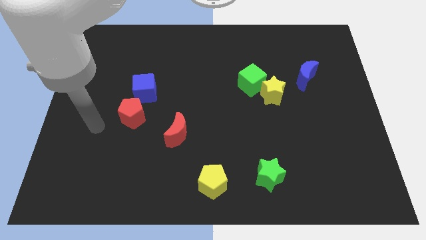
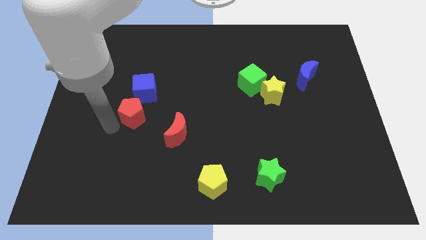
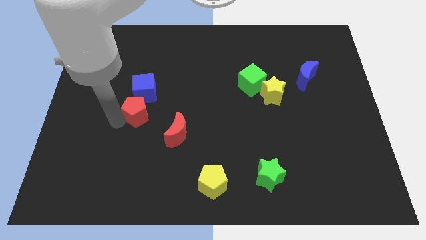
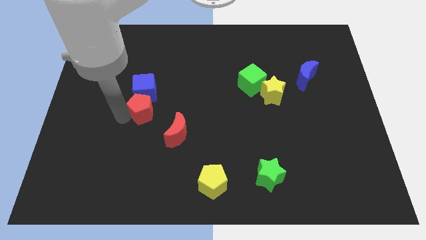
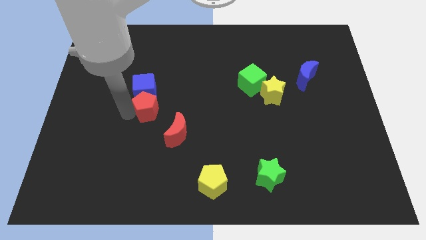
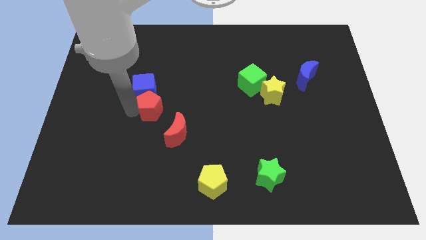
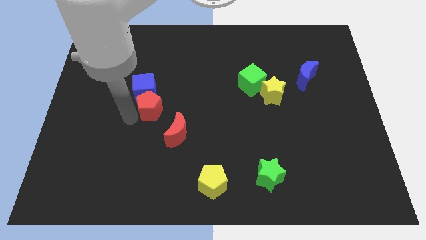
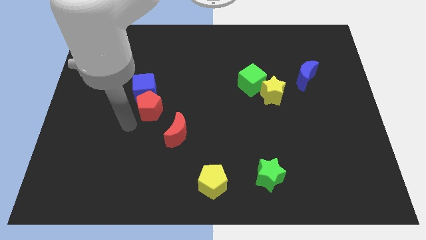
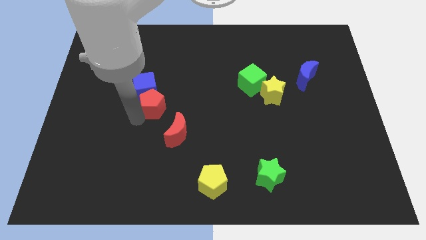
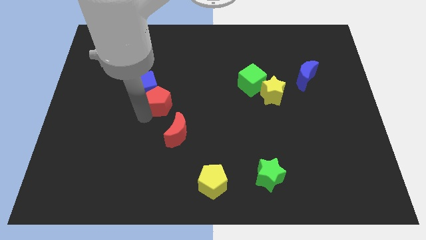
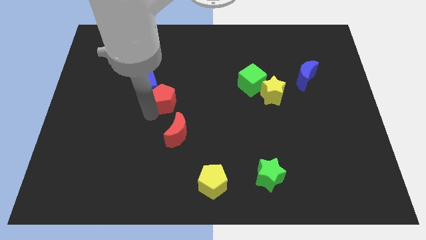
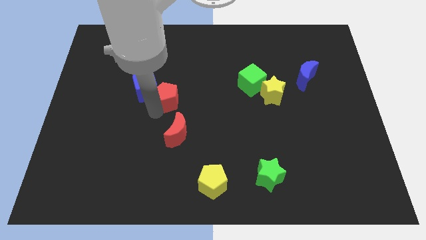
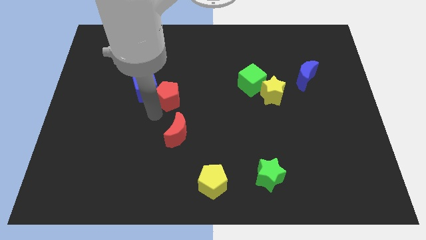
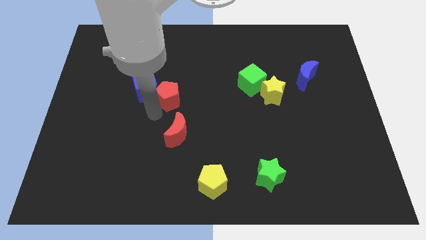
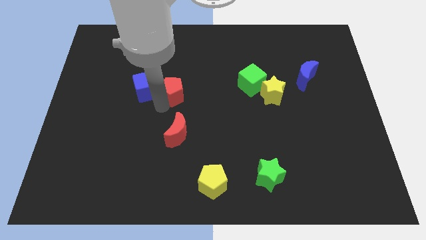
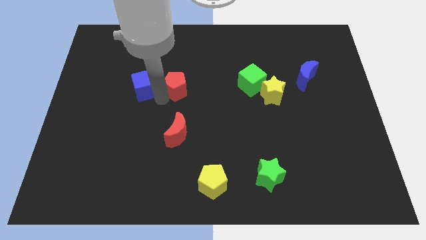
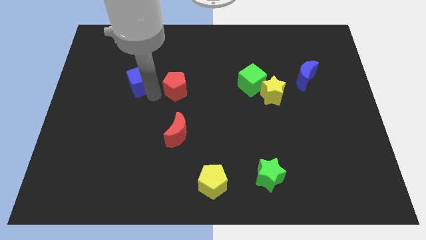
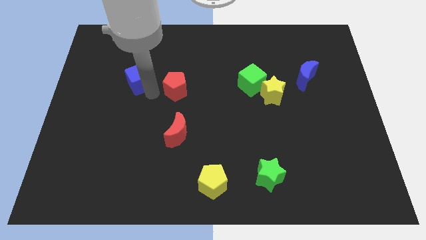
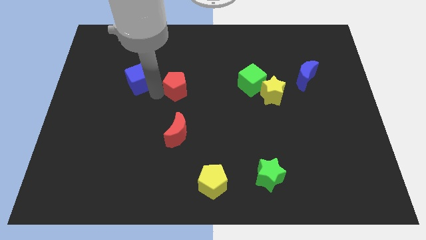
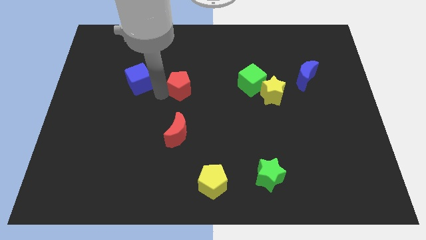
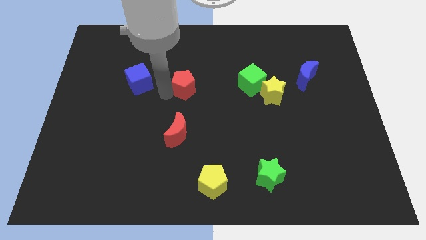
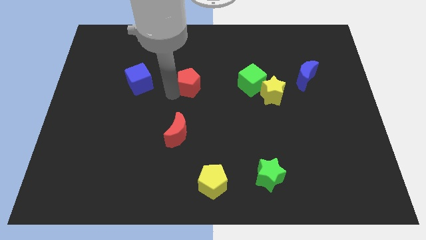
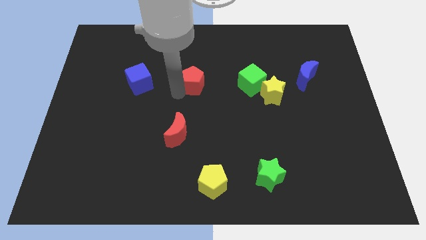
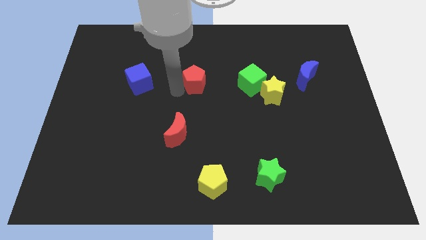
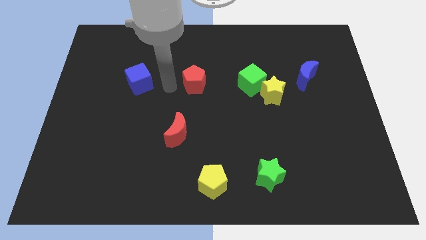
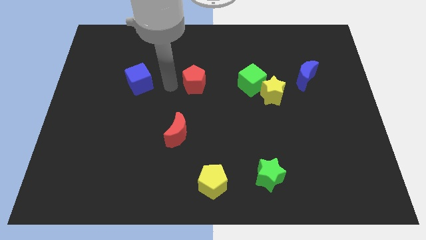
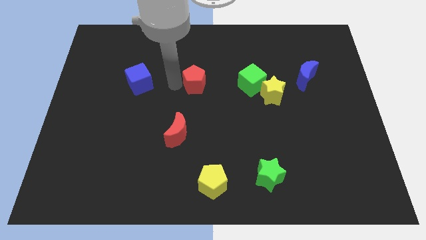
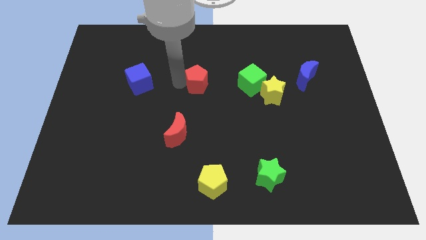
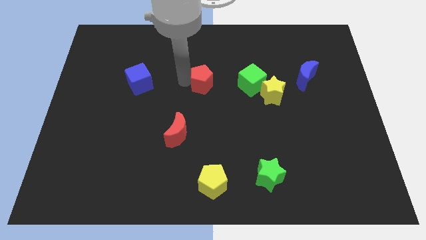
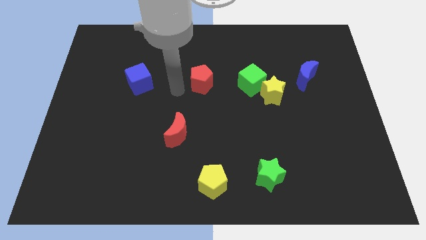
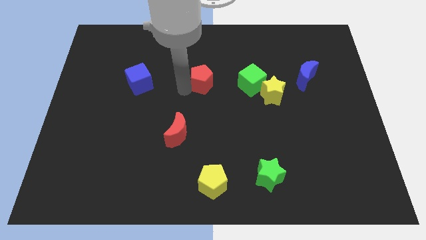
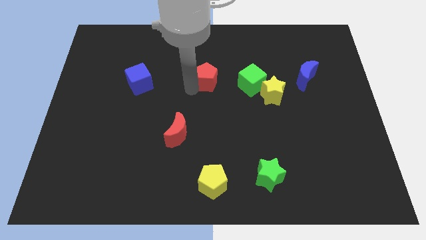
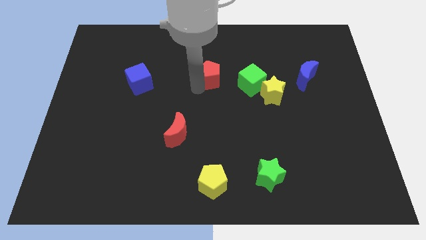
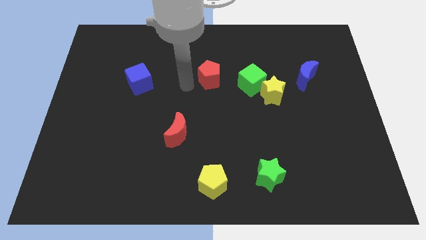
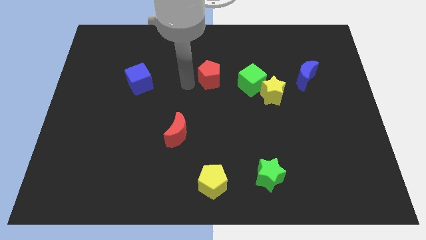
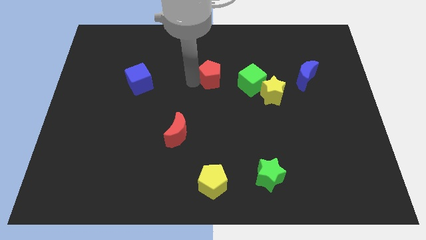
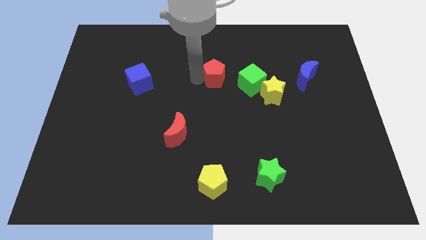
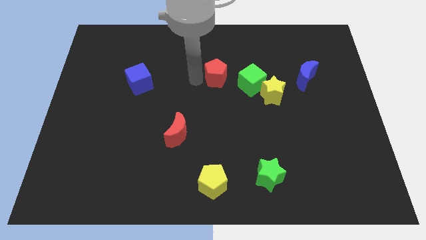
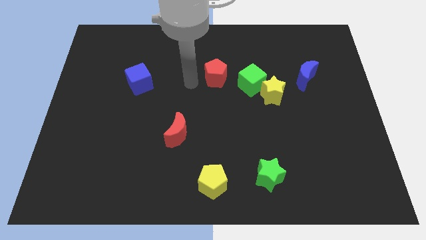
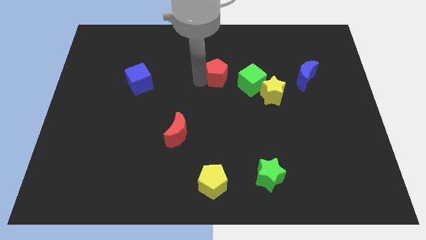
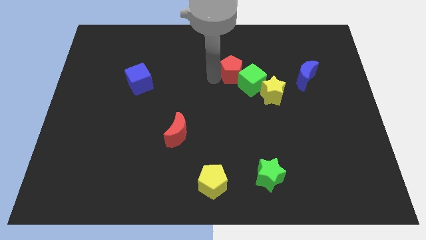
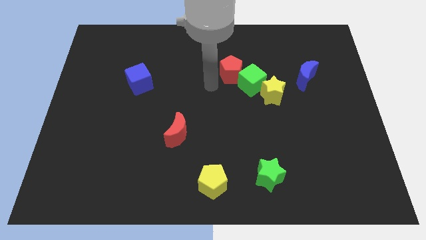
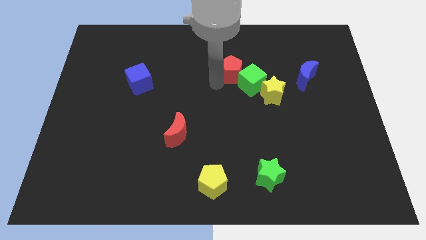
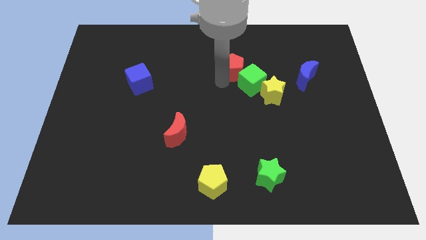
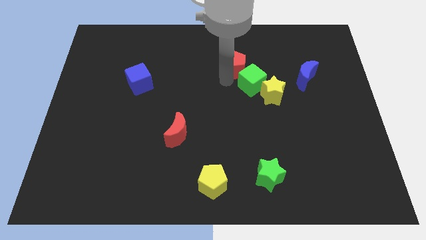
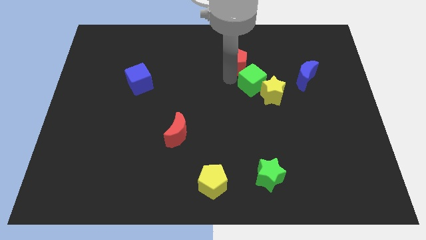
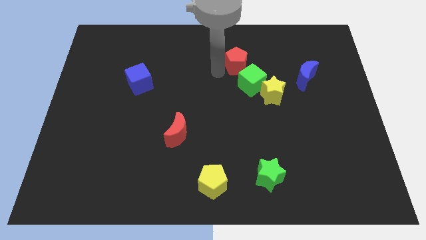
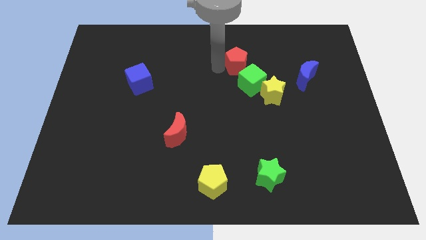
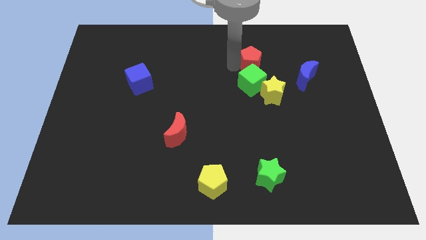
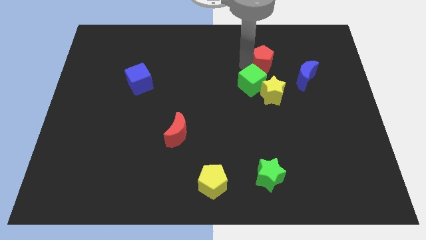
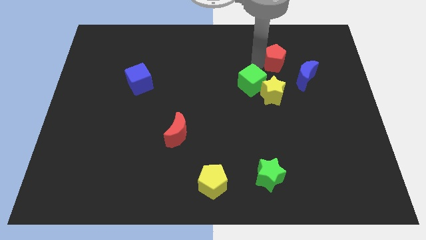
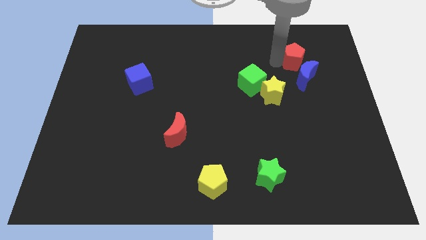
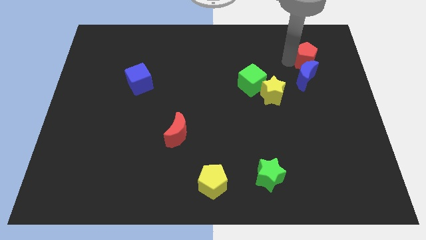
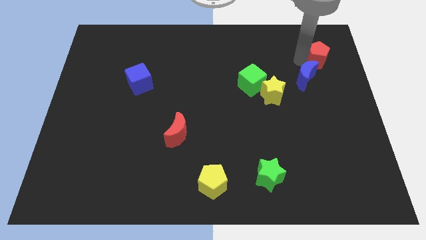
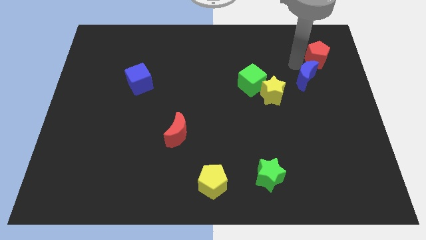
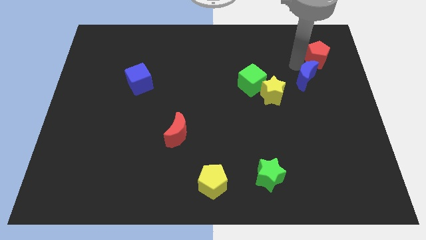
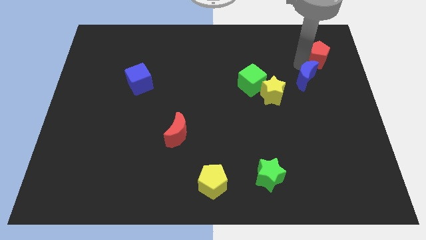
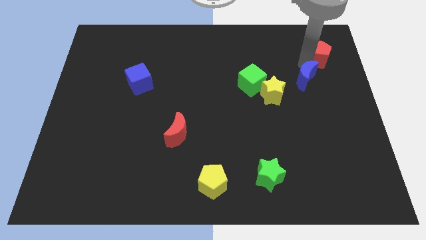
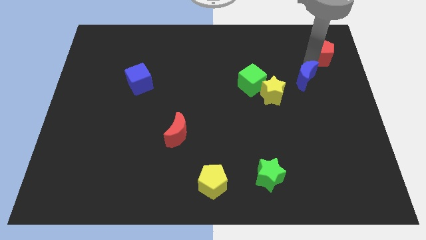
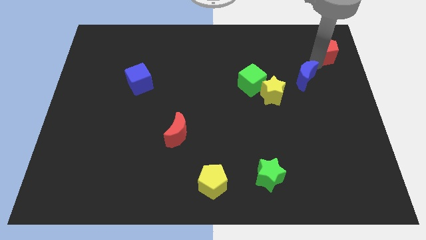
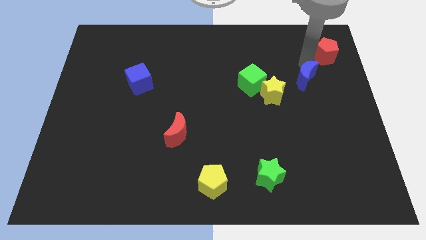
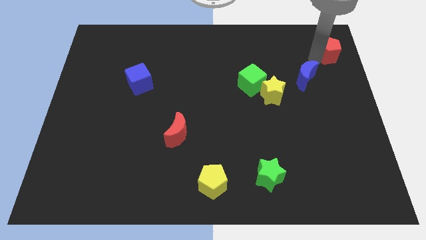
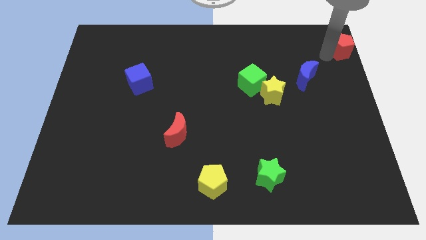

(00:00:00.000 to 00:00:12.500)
push the red pentagon to the top right of the board
